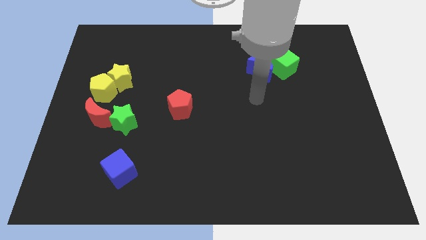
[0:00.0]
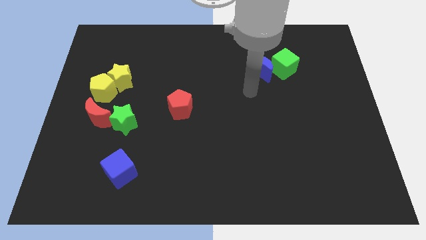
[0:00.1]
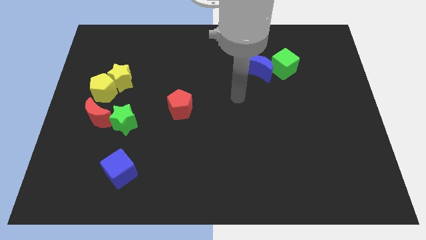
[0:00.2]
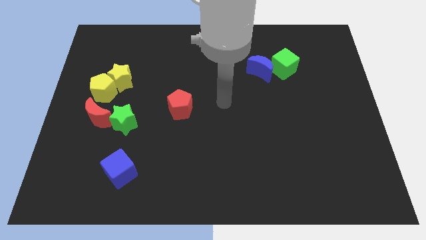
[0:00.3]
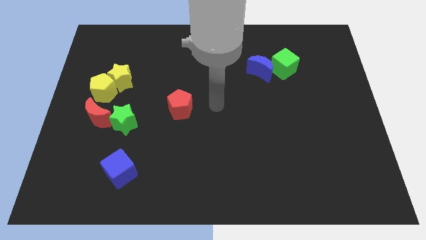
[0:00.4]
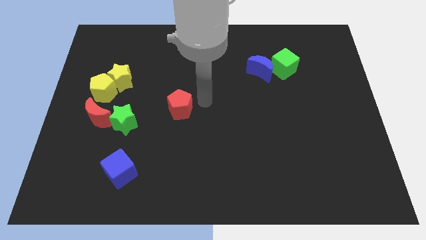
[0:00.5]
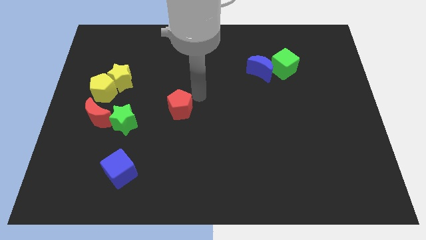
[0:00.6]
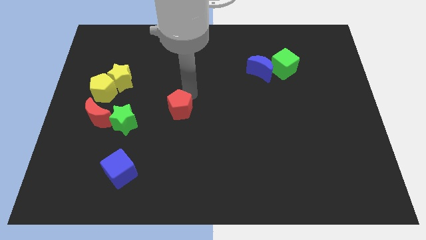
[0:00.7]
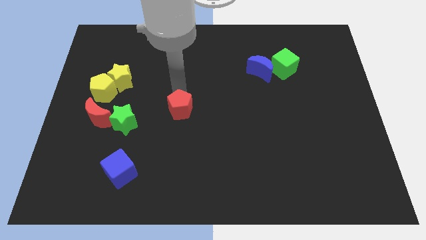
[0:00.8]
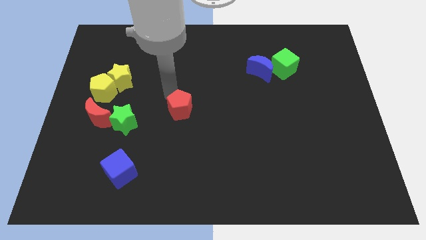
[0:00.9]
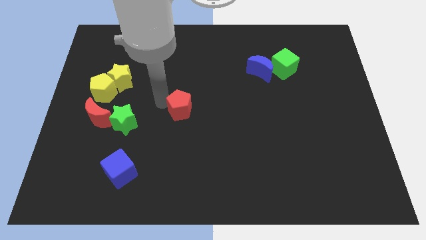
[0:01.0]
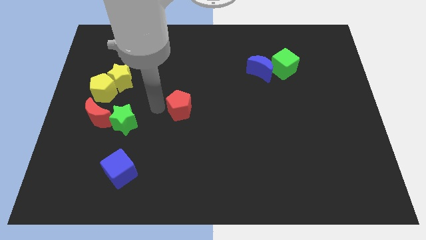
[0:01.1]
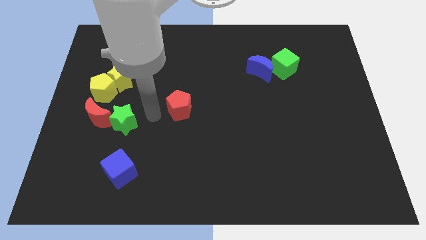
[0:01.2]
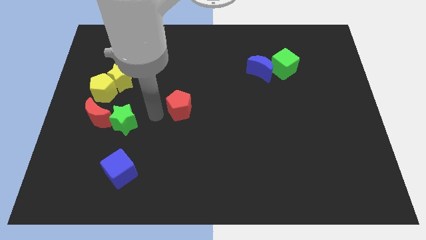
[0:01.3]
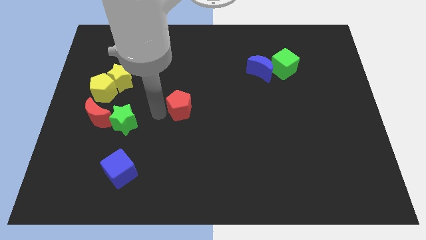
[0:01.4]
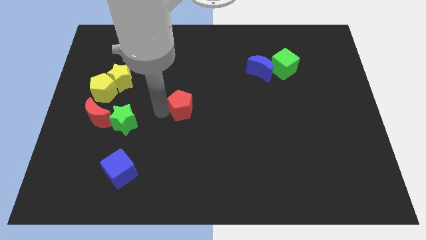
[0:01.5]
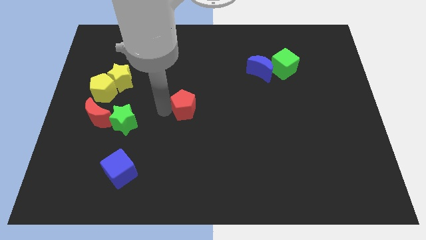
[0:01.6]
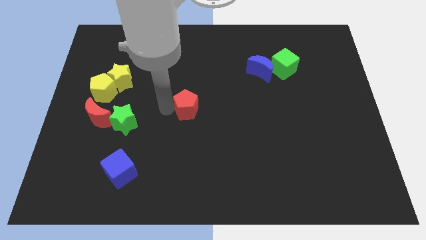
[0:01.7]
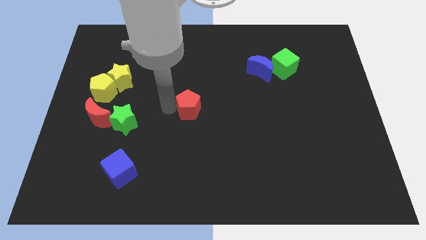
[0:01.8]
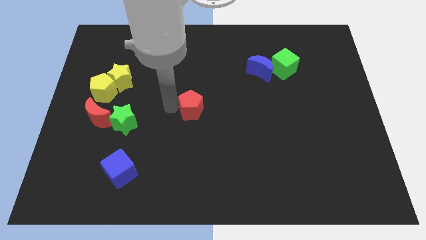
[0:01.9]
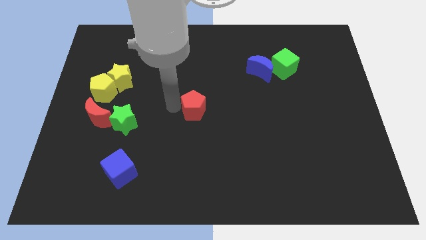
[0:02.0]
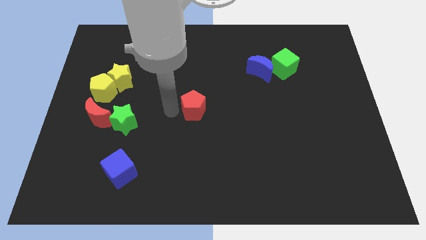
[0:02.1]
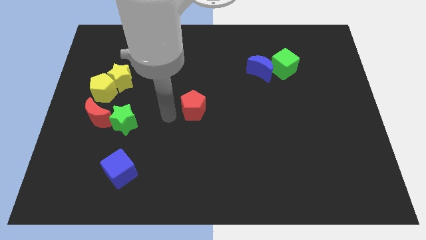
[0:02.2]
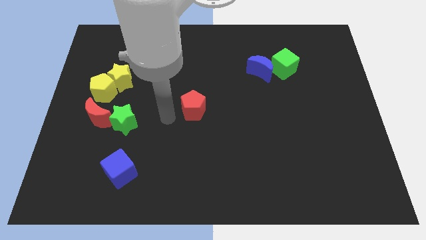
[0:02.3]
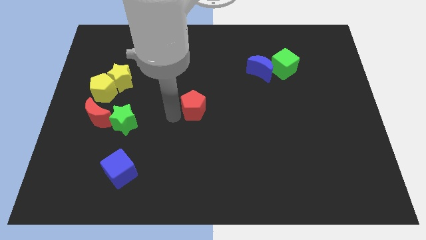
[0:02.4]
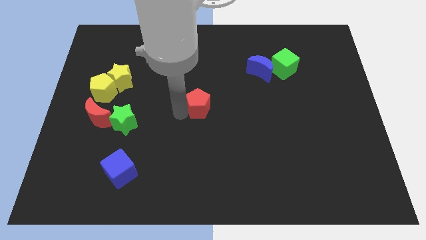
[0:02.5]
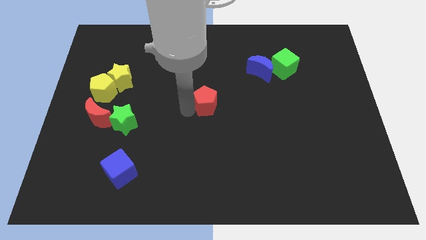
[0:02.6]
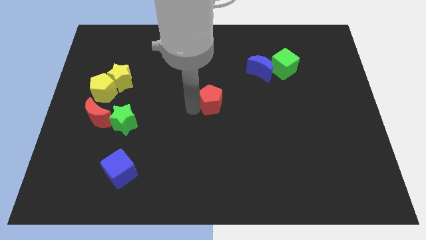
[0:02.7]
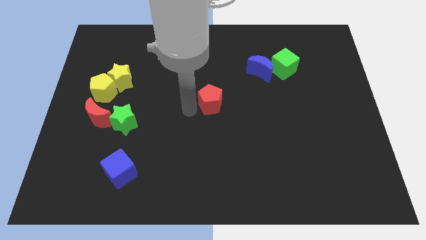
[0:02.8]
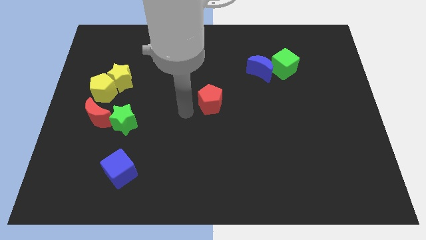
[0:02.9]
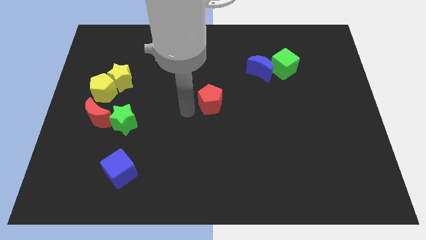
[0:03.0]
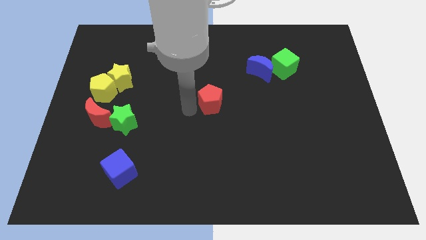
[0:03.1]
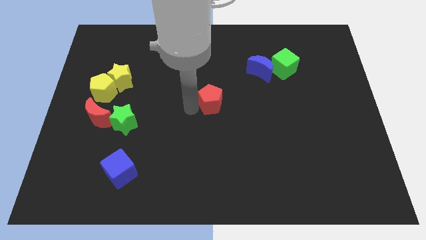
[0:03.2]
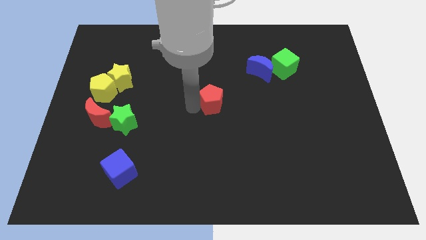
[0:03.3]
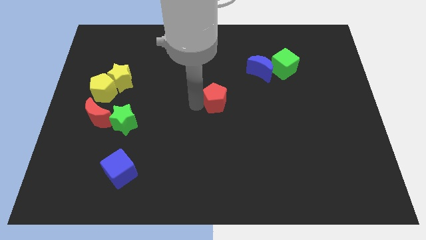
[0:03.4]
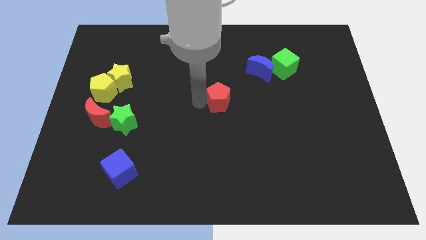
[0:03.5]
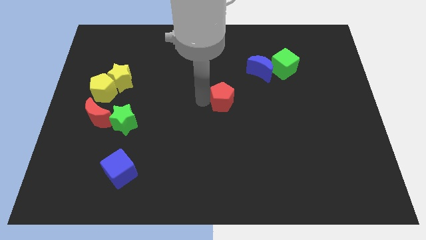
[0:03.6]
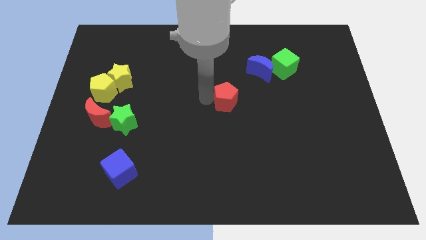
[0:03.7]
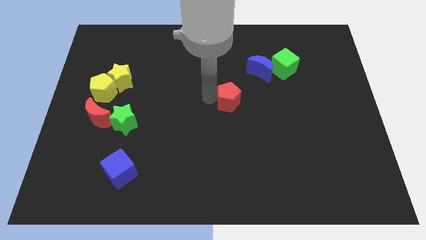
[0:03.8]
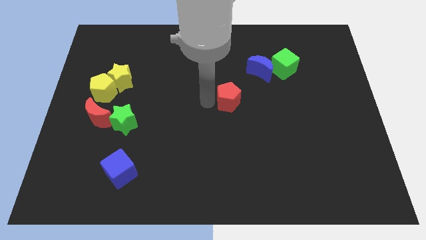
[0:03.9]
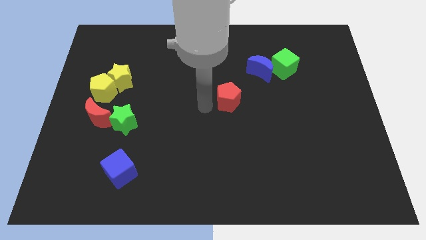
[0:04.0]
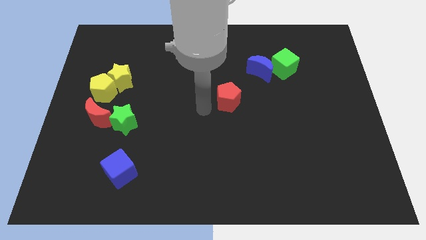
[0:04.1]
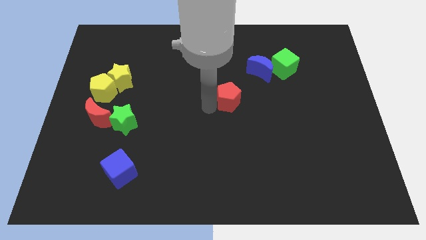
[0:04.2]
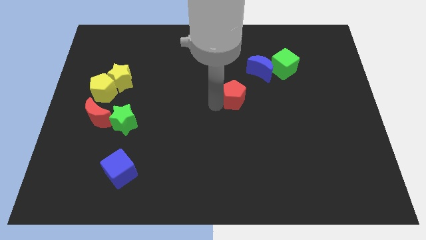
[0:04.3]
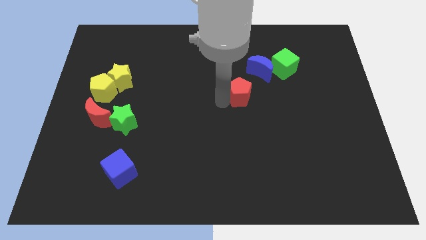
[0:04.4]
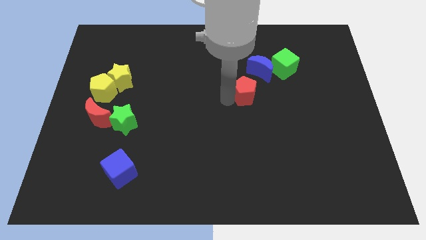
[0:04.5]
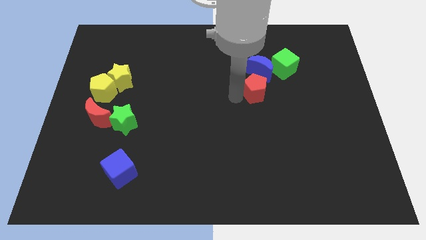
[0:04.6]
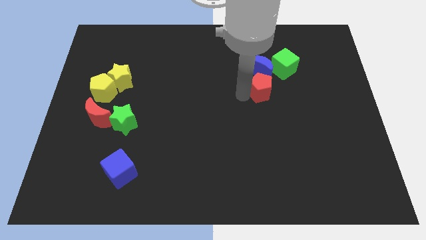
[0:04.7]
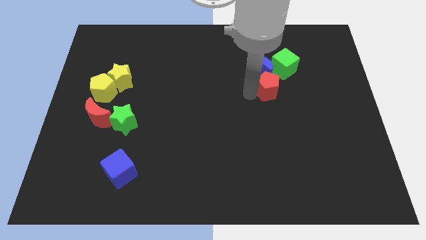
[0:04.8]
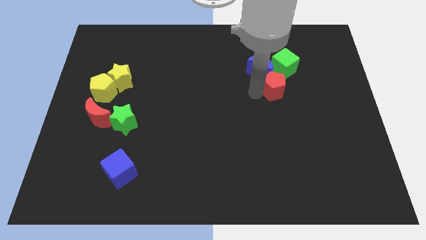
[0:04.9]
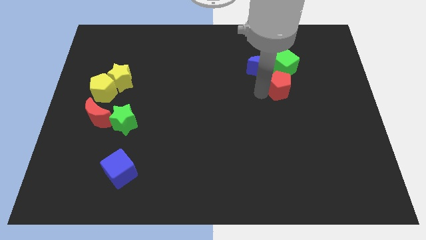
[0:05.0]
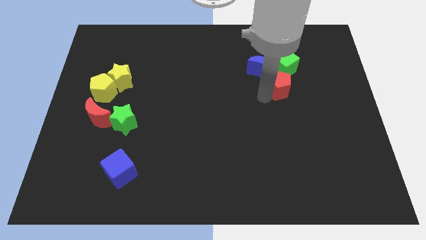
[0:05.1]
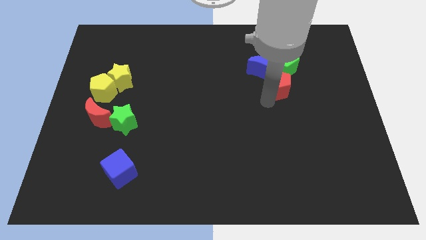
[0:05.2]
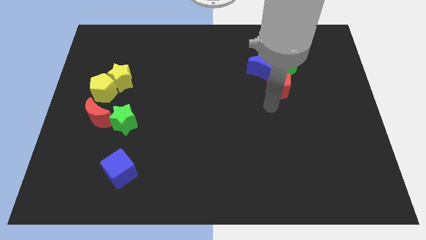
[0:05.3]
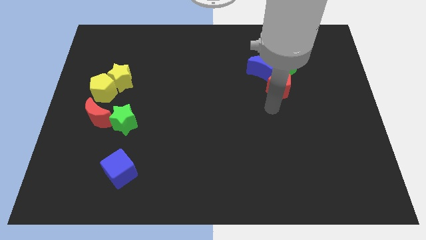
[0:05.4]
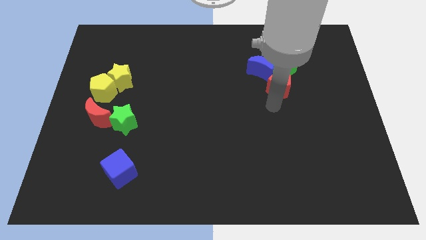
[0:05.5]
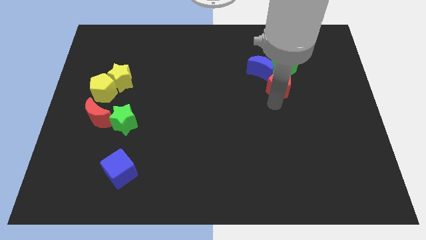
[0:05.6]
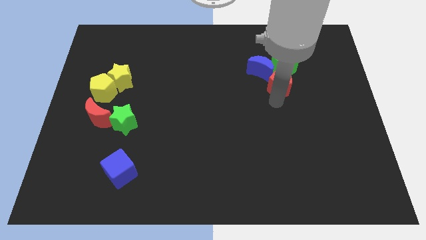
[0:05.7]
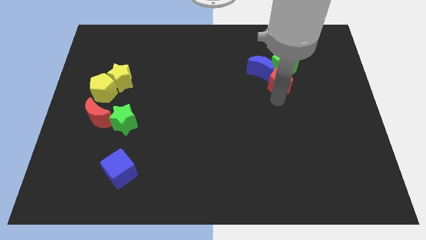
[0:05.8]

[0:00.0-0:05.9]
put the red pentagon close to the green cube

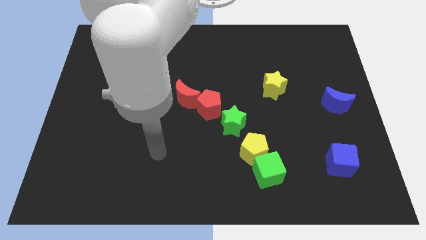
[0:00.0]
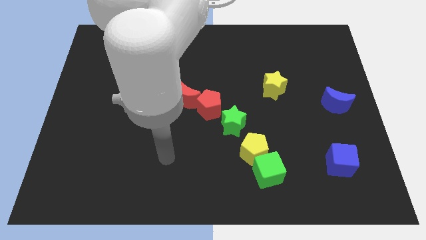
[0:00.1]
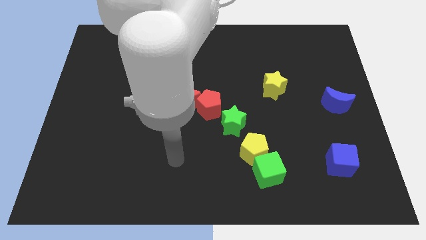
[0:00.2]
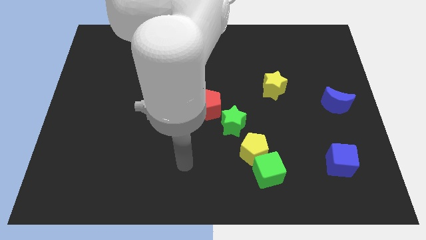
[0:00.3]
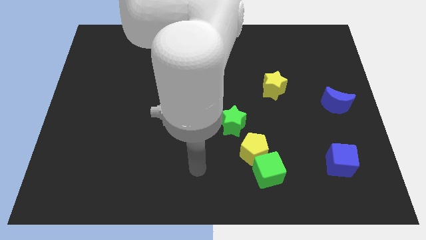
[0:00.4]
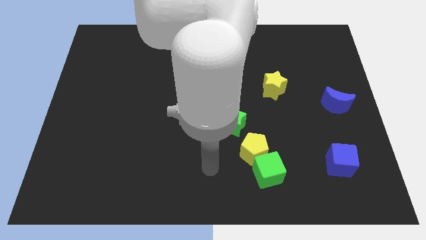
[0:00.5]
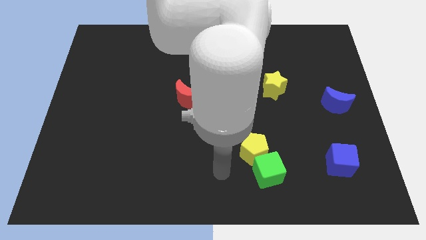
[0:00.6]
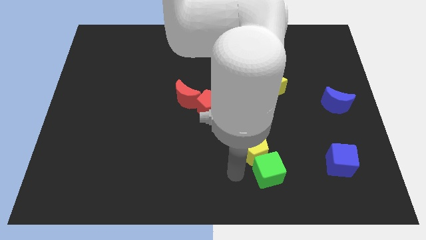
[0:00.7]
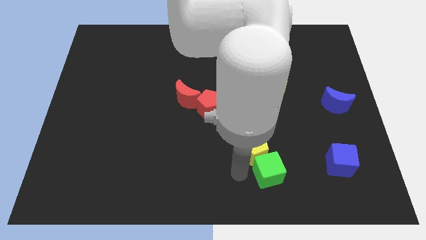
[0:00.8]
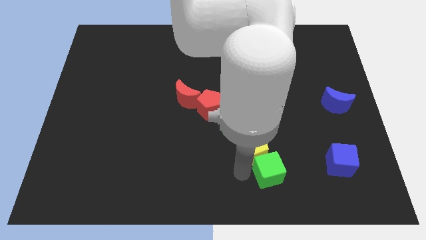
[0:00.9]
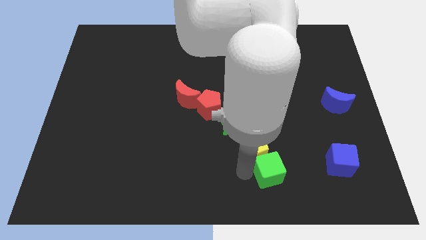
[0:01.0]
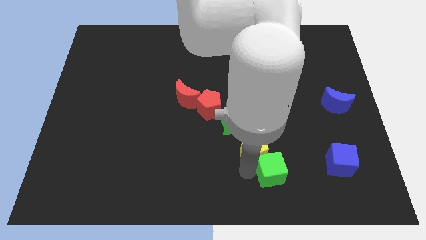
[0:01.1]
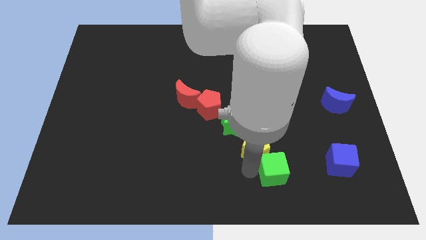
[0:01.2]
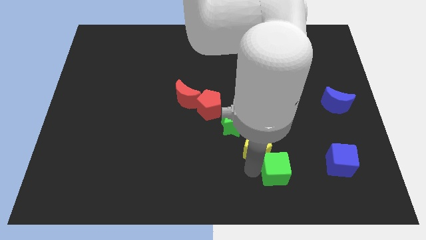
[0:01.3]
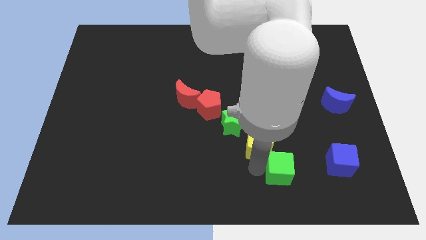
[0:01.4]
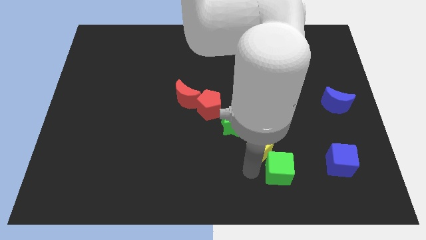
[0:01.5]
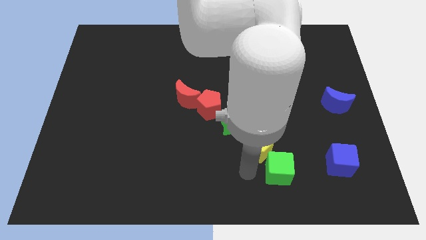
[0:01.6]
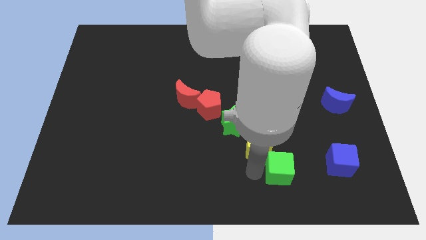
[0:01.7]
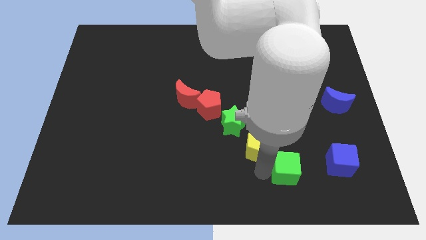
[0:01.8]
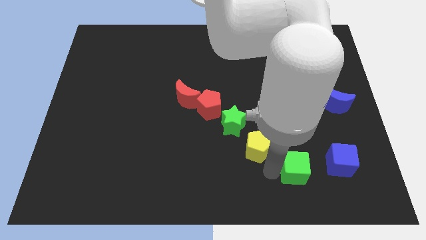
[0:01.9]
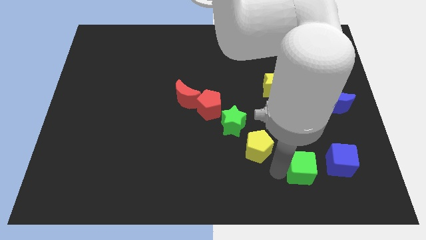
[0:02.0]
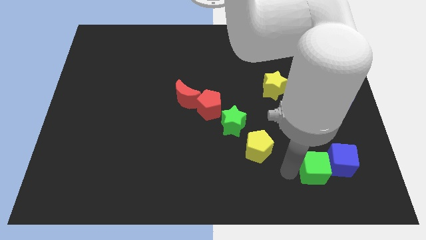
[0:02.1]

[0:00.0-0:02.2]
slide the green cube next to the blue cube
